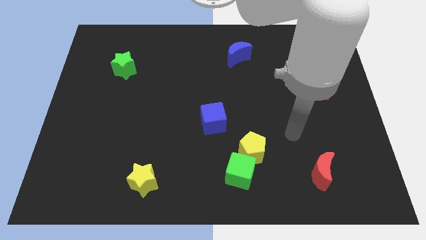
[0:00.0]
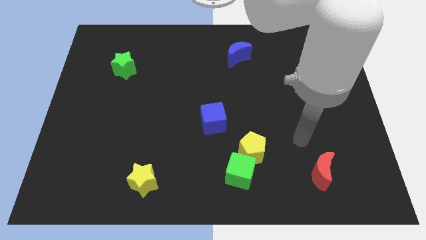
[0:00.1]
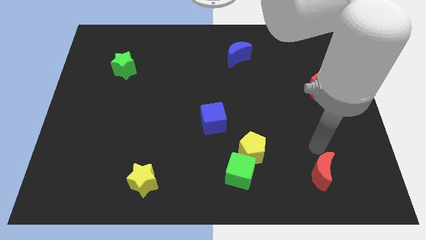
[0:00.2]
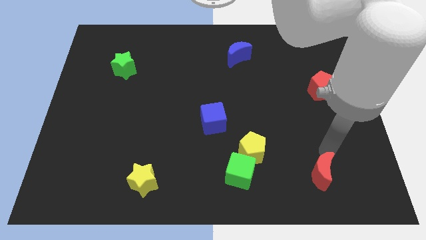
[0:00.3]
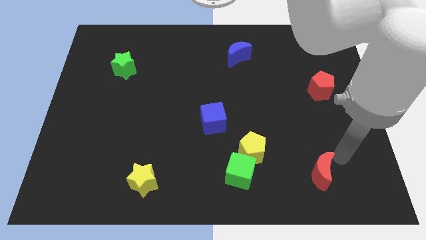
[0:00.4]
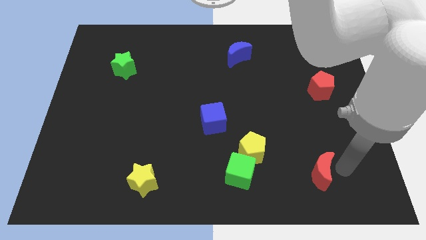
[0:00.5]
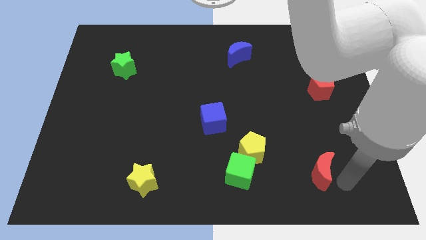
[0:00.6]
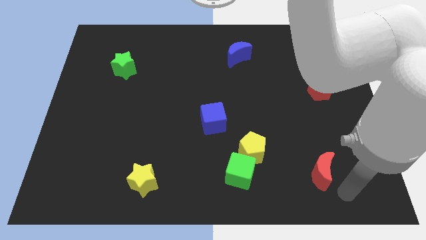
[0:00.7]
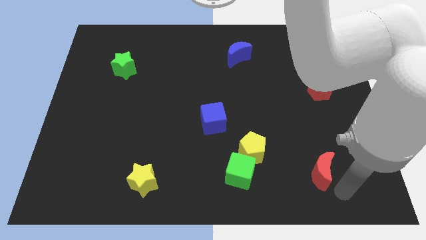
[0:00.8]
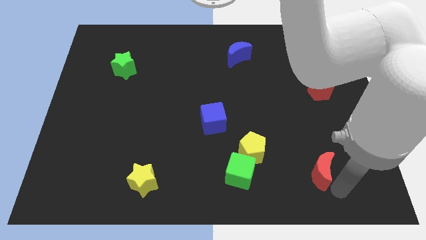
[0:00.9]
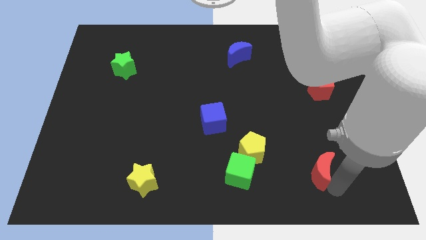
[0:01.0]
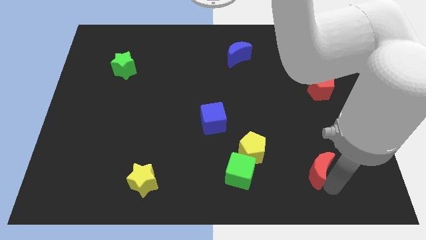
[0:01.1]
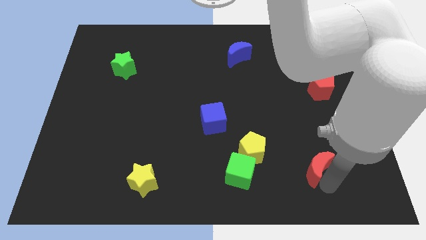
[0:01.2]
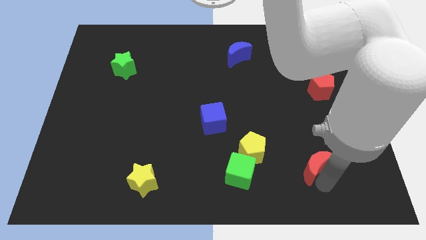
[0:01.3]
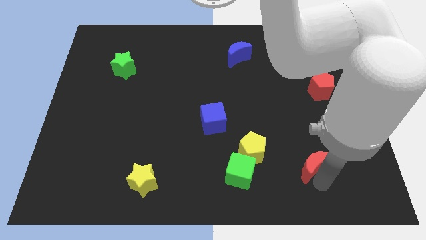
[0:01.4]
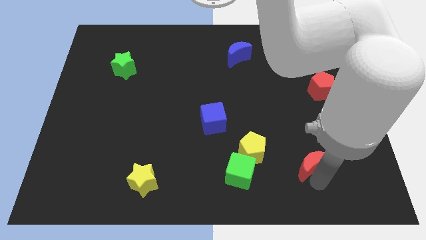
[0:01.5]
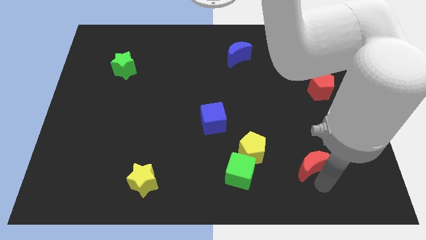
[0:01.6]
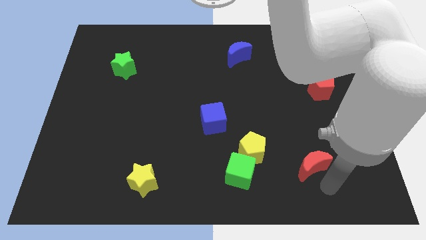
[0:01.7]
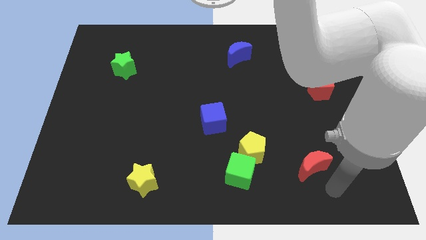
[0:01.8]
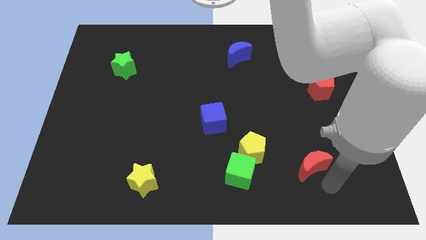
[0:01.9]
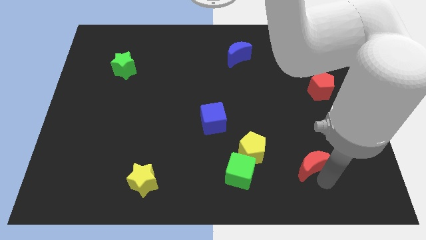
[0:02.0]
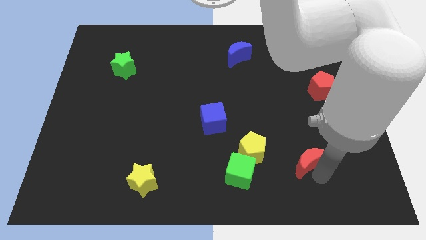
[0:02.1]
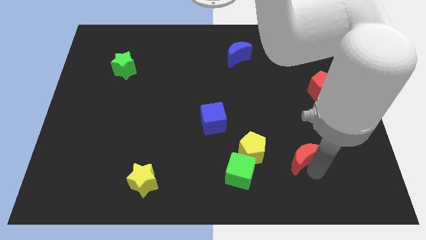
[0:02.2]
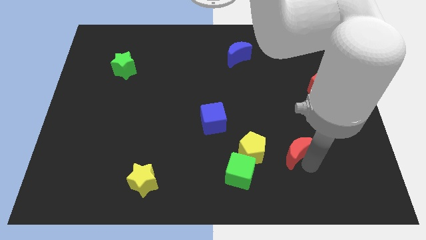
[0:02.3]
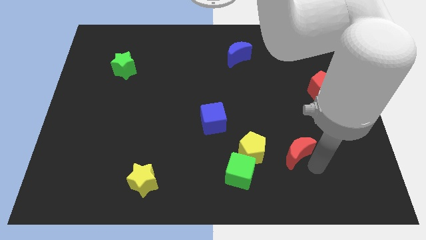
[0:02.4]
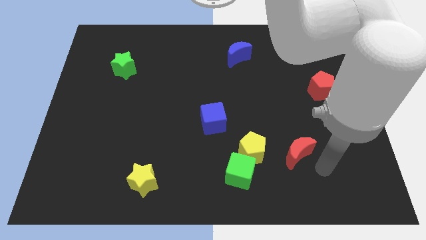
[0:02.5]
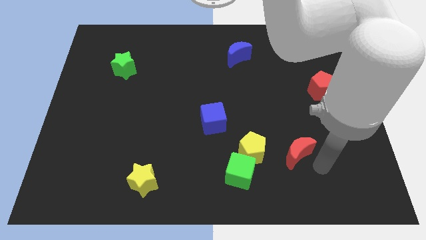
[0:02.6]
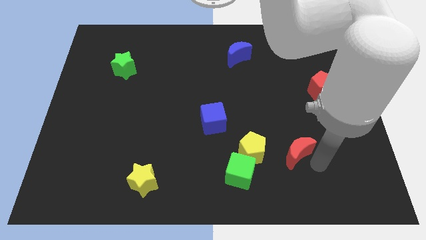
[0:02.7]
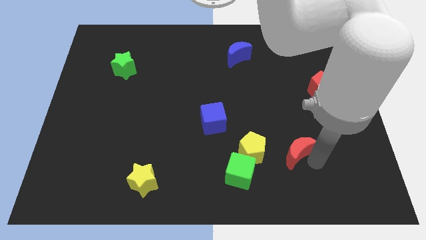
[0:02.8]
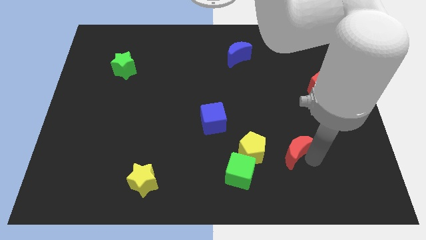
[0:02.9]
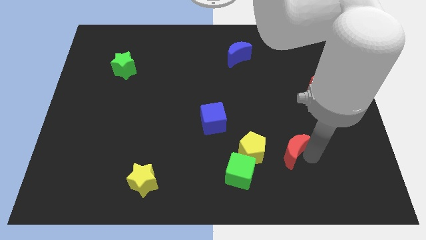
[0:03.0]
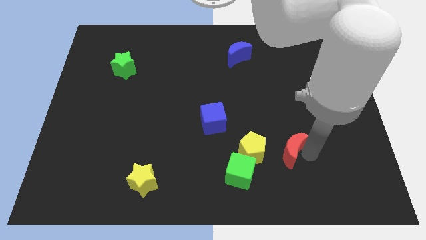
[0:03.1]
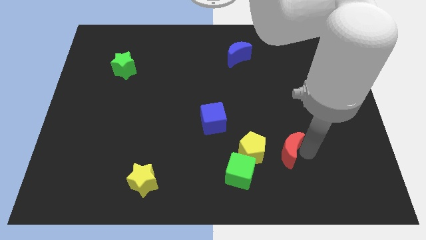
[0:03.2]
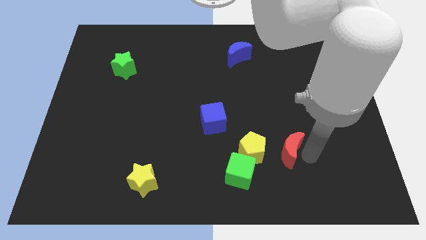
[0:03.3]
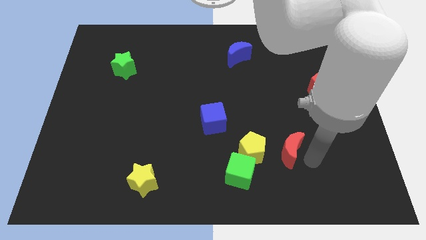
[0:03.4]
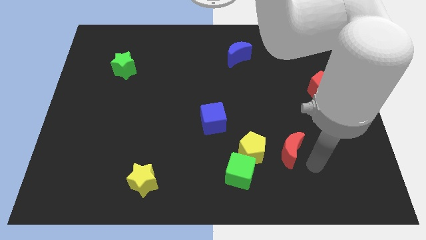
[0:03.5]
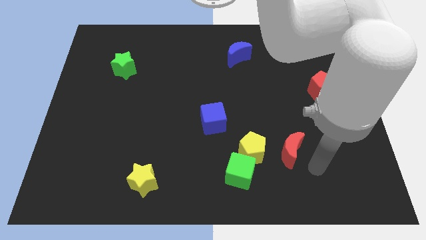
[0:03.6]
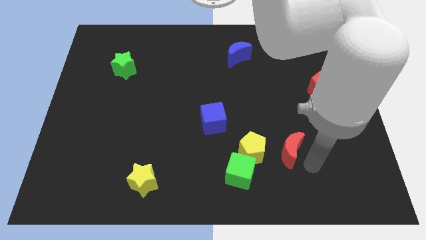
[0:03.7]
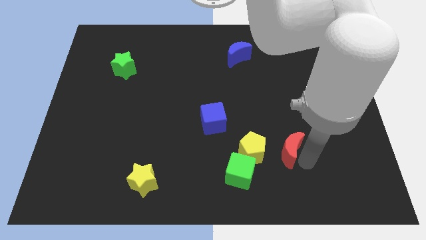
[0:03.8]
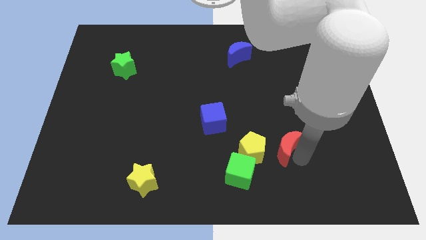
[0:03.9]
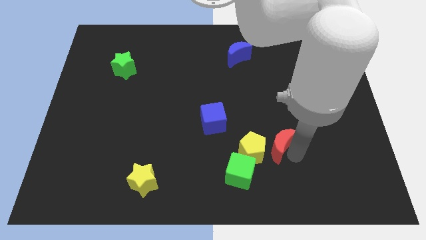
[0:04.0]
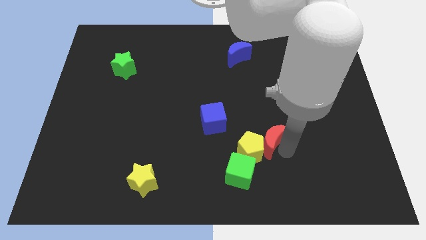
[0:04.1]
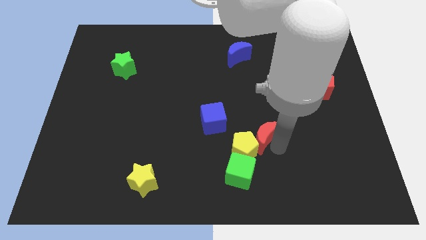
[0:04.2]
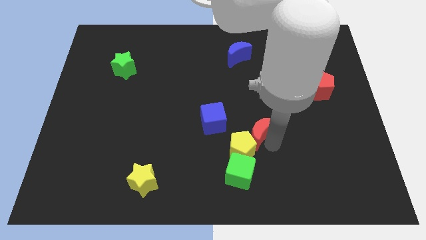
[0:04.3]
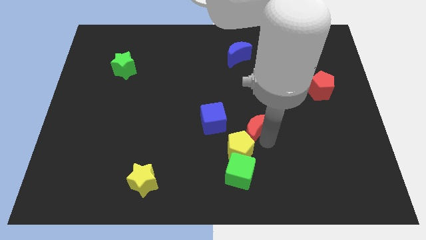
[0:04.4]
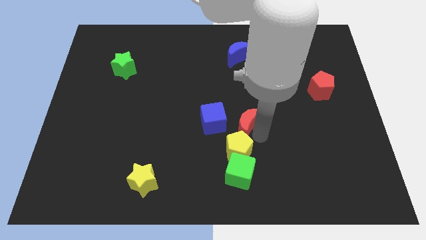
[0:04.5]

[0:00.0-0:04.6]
put the red moon to the middle of the board

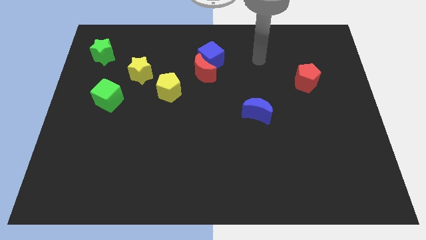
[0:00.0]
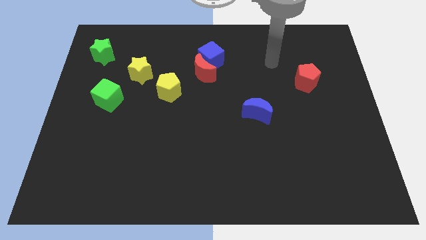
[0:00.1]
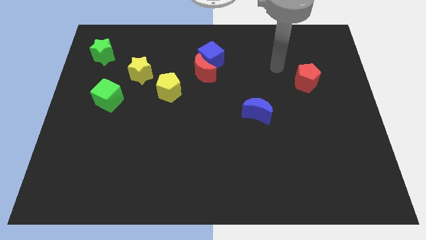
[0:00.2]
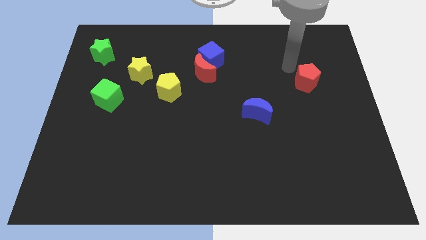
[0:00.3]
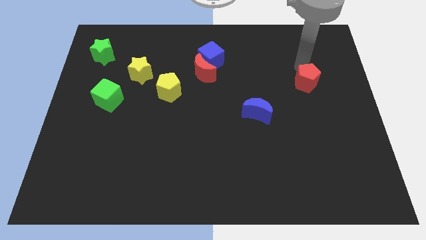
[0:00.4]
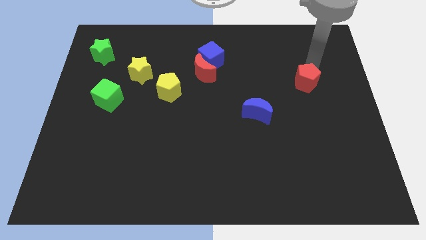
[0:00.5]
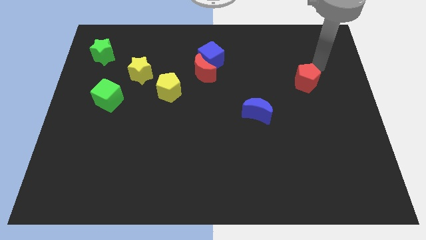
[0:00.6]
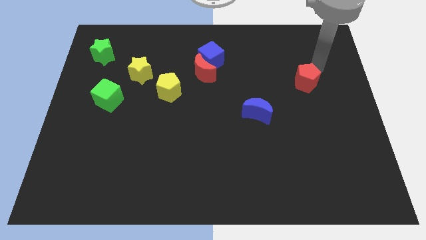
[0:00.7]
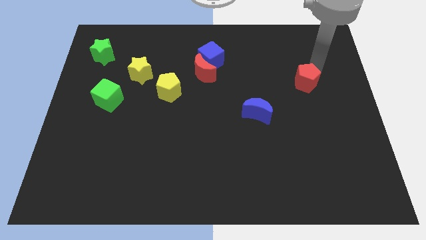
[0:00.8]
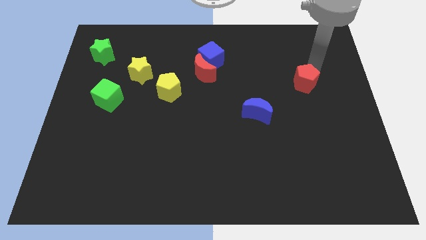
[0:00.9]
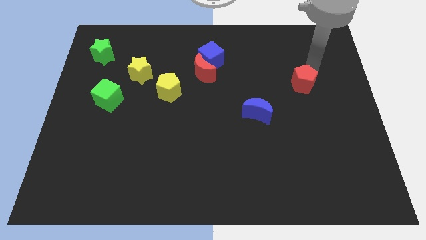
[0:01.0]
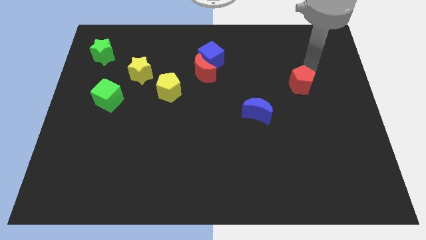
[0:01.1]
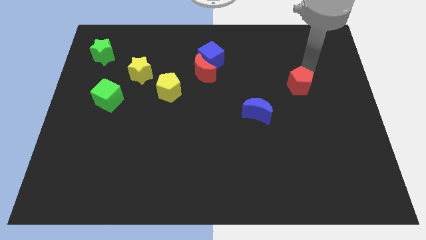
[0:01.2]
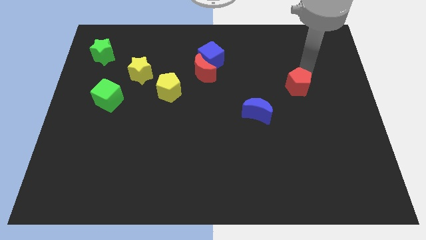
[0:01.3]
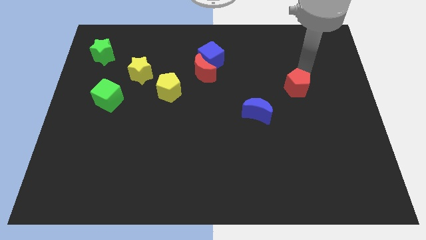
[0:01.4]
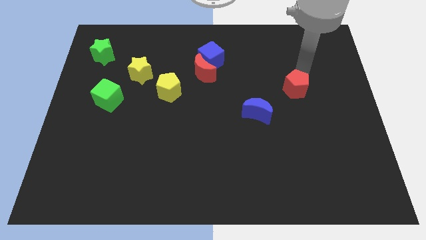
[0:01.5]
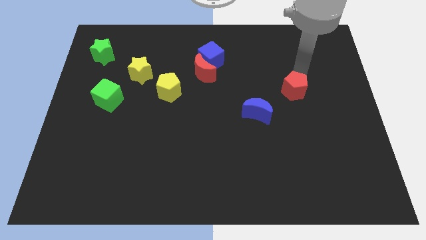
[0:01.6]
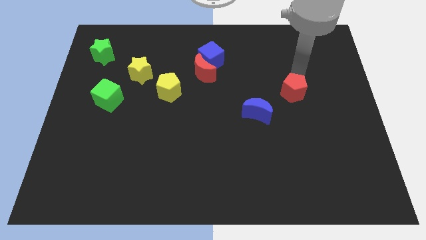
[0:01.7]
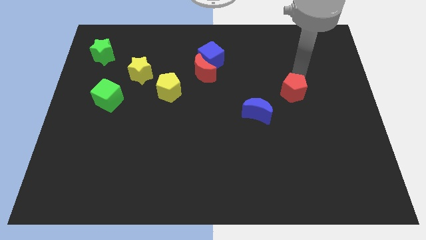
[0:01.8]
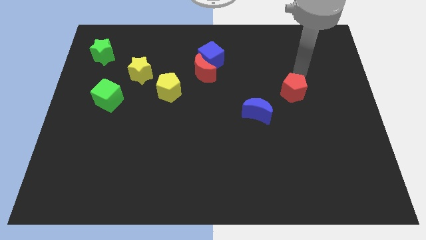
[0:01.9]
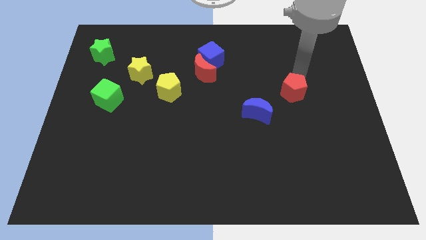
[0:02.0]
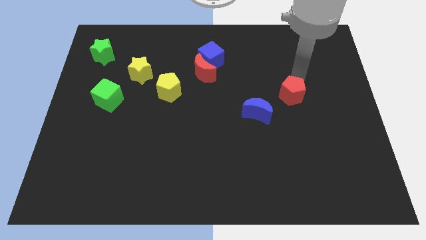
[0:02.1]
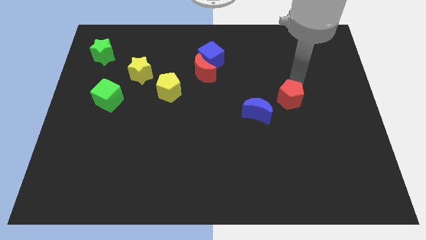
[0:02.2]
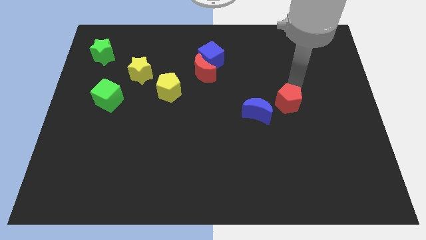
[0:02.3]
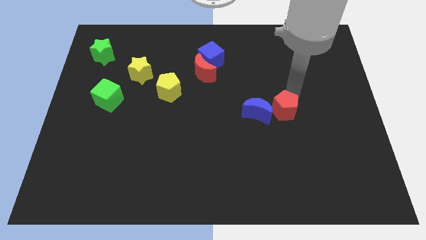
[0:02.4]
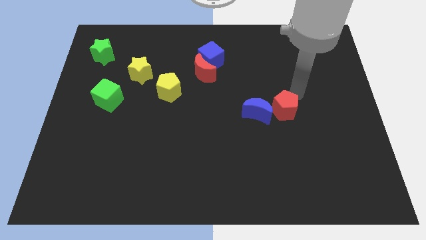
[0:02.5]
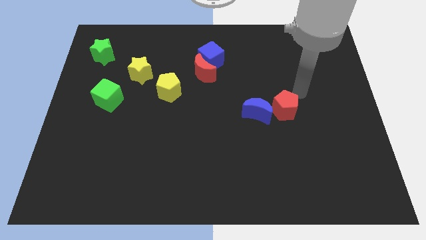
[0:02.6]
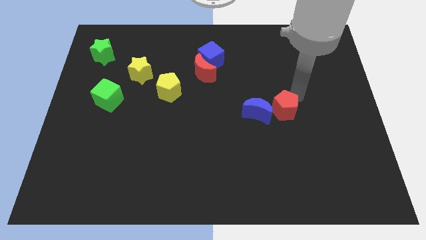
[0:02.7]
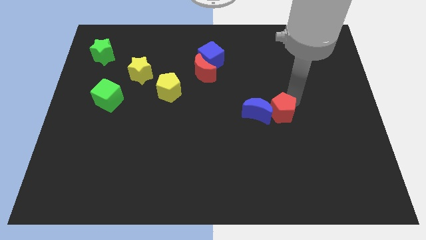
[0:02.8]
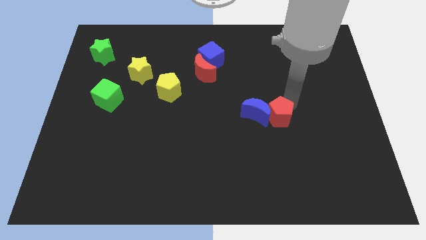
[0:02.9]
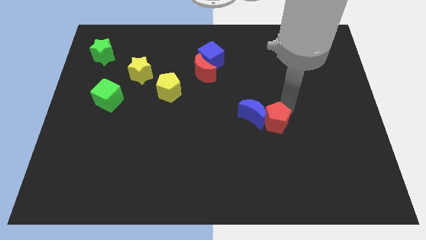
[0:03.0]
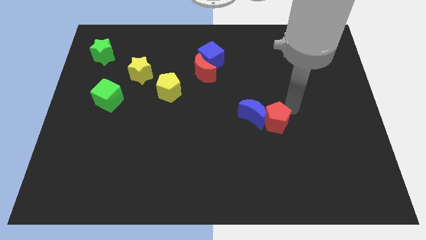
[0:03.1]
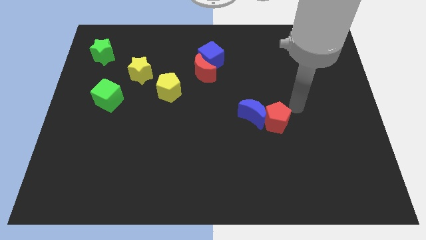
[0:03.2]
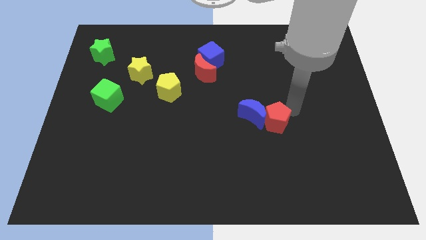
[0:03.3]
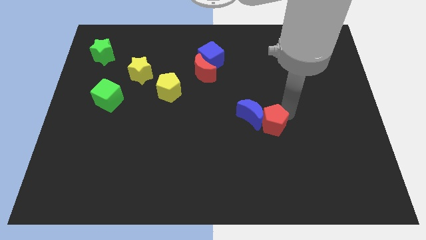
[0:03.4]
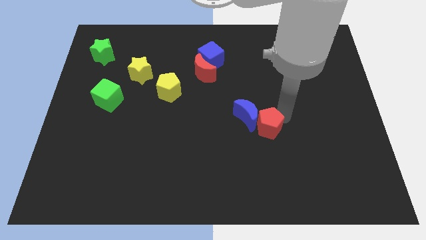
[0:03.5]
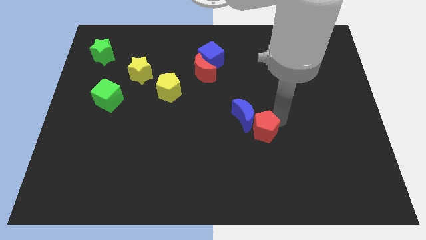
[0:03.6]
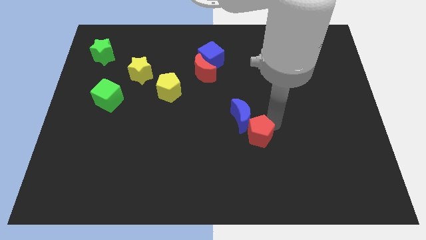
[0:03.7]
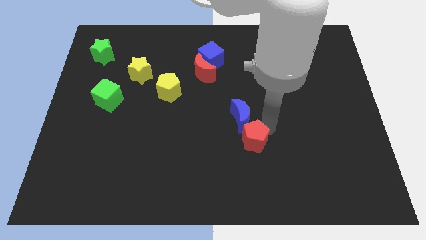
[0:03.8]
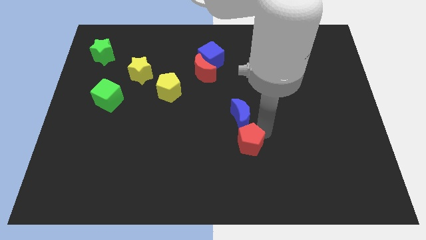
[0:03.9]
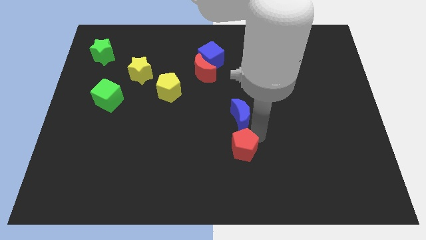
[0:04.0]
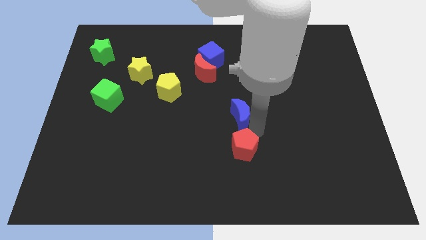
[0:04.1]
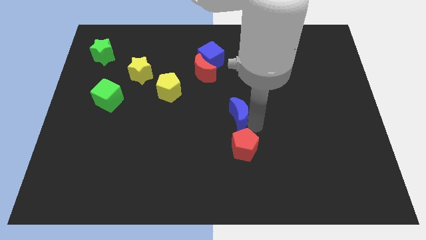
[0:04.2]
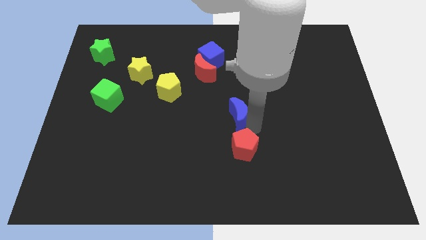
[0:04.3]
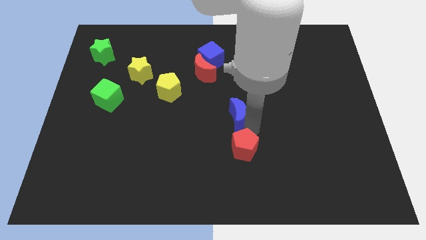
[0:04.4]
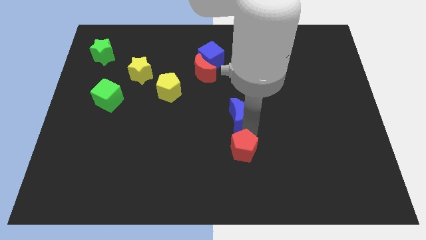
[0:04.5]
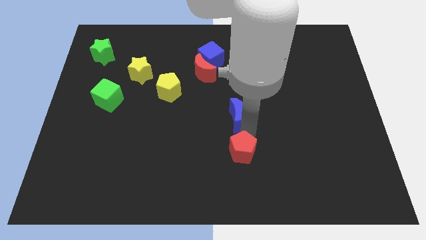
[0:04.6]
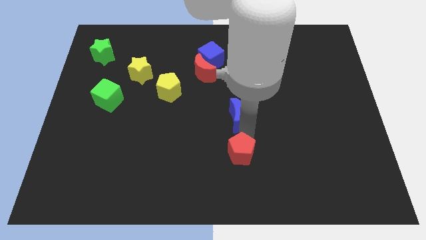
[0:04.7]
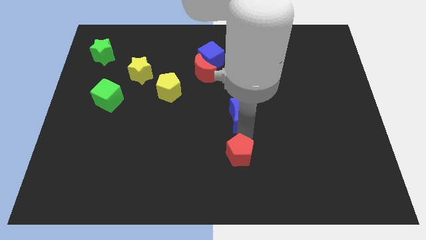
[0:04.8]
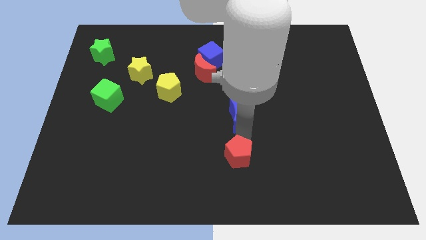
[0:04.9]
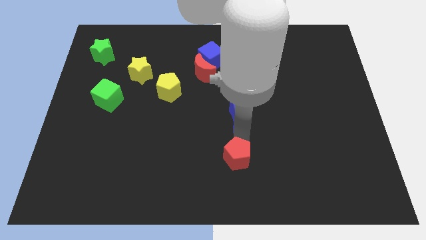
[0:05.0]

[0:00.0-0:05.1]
push the red pentagon to the bottom side
